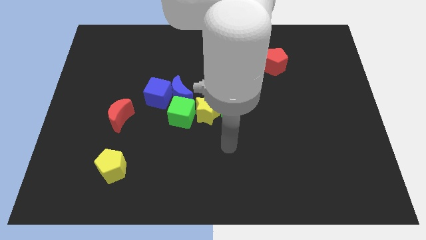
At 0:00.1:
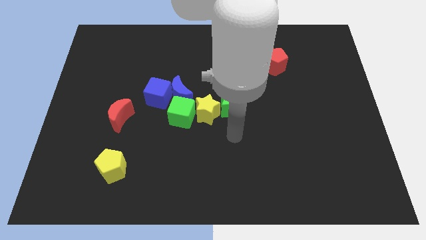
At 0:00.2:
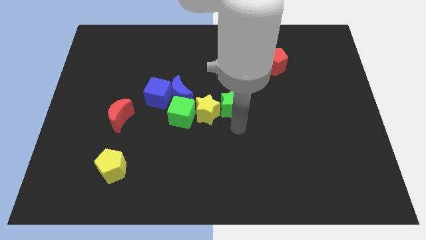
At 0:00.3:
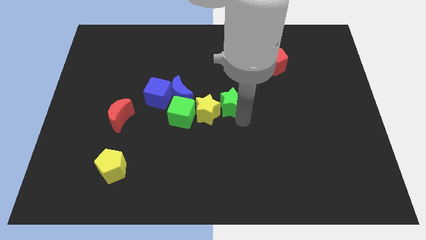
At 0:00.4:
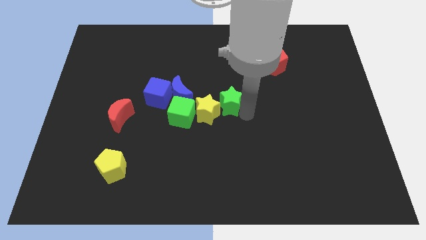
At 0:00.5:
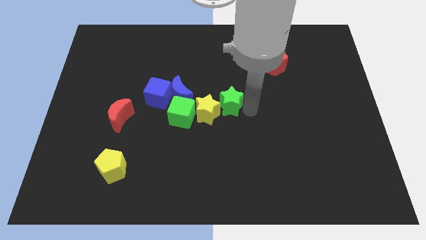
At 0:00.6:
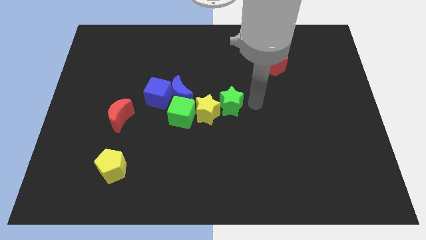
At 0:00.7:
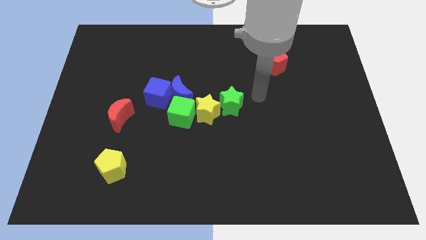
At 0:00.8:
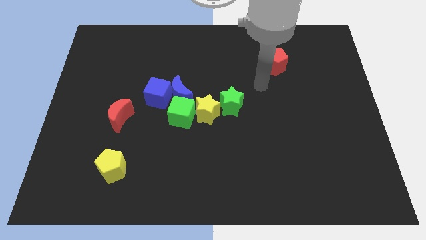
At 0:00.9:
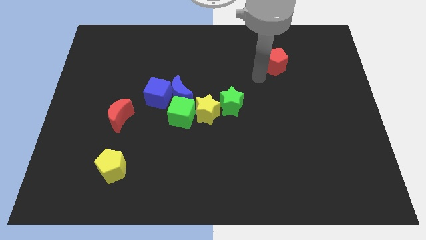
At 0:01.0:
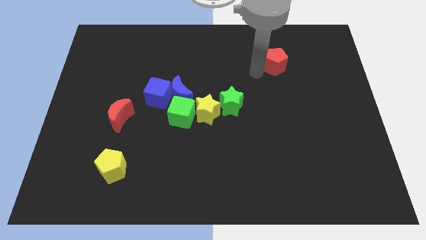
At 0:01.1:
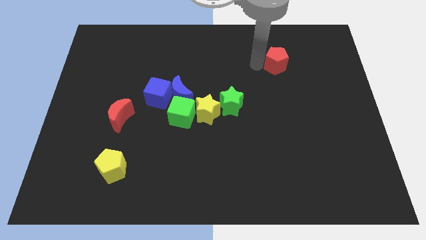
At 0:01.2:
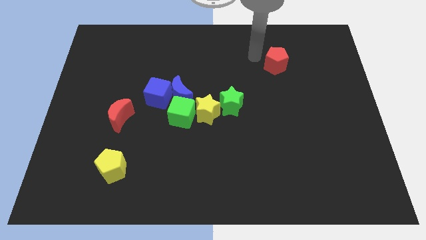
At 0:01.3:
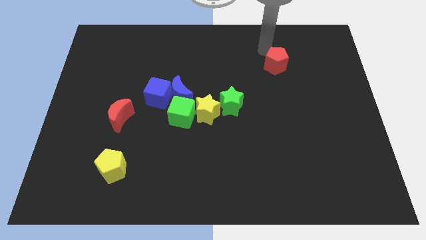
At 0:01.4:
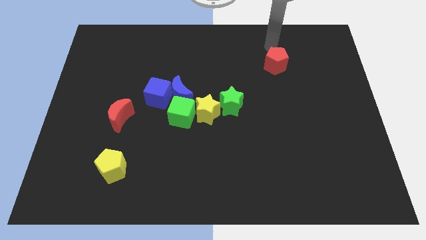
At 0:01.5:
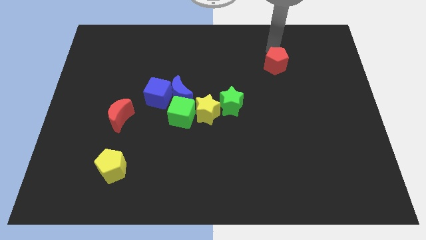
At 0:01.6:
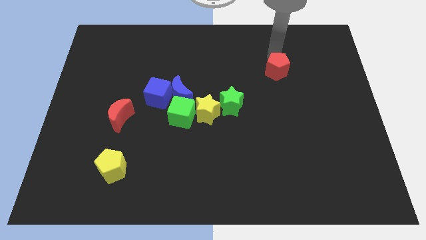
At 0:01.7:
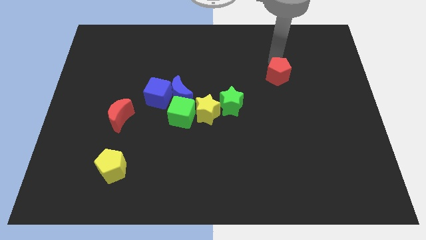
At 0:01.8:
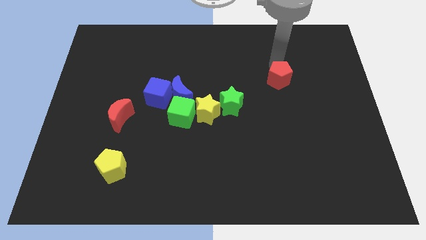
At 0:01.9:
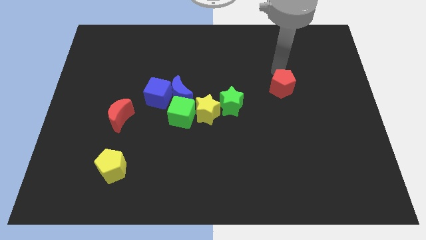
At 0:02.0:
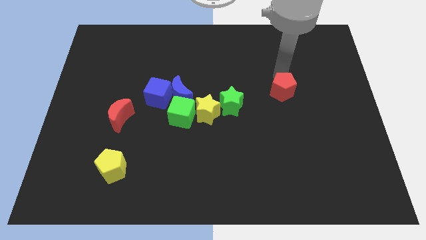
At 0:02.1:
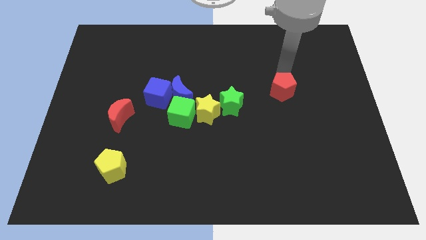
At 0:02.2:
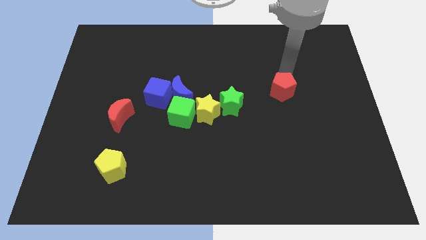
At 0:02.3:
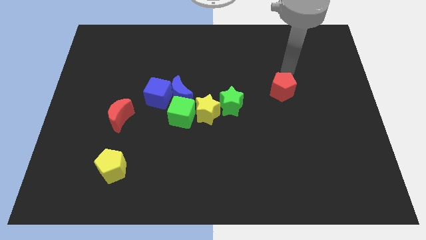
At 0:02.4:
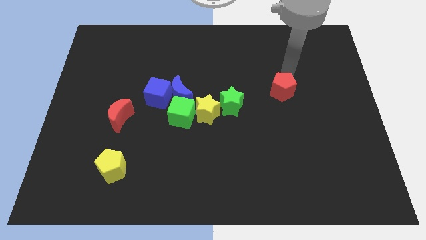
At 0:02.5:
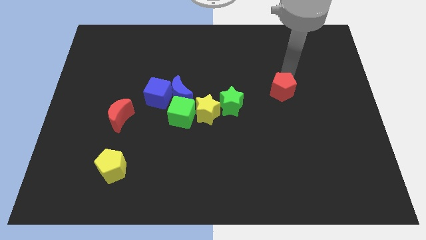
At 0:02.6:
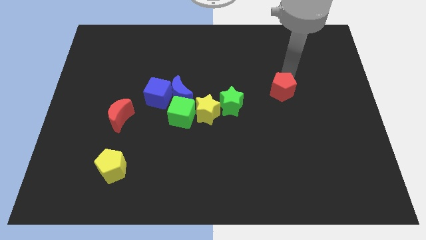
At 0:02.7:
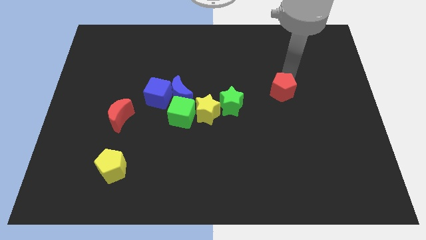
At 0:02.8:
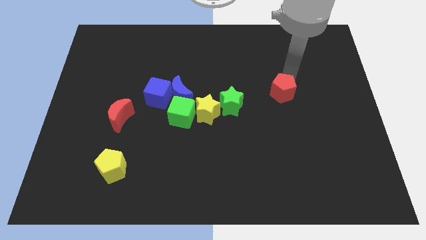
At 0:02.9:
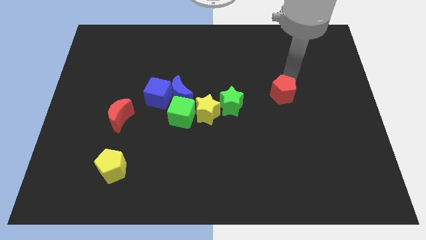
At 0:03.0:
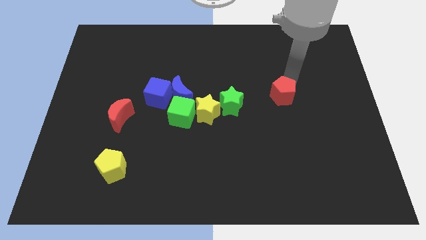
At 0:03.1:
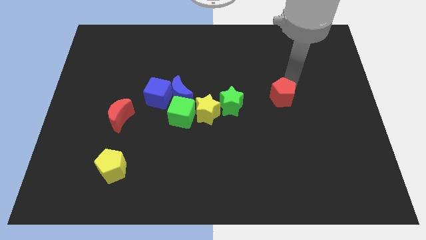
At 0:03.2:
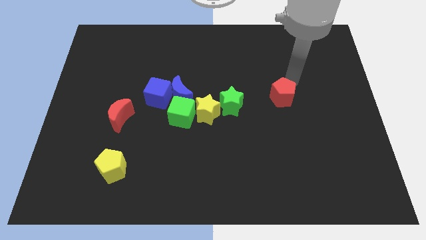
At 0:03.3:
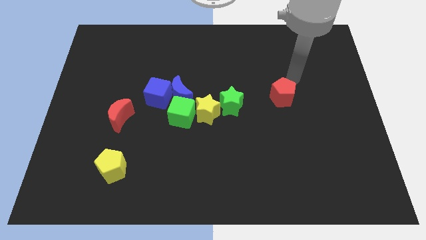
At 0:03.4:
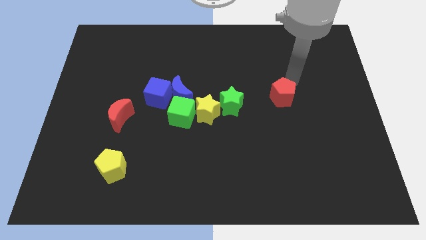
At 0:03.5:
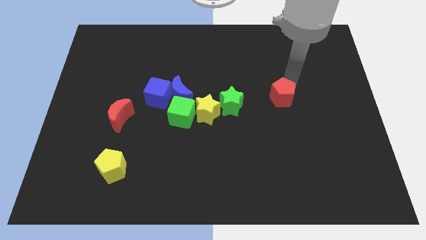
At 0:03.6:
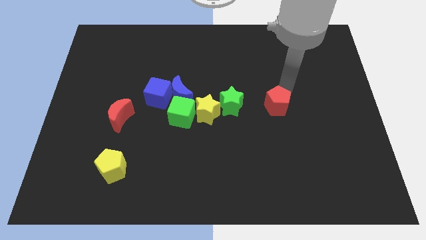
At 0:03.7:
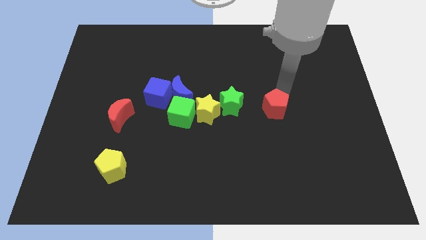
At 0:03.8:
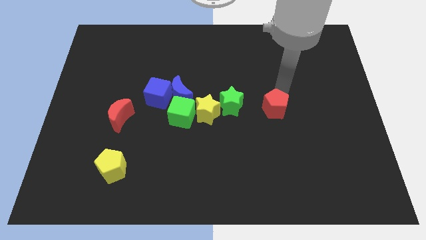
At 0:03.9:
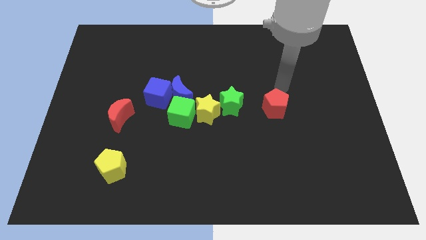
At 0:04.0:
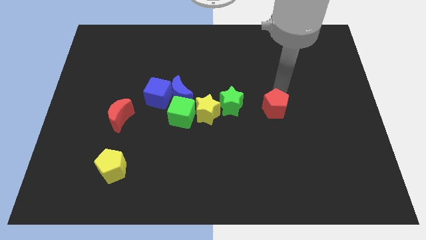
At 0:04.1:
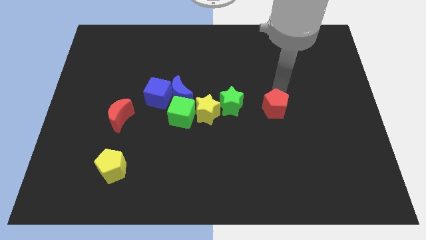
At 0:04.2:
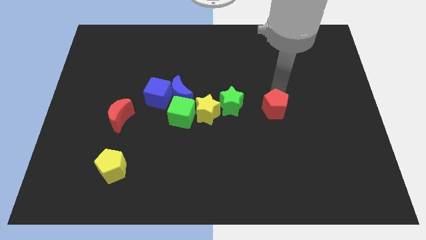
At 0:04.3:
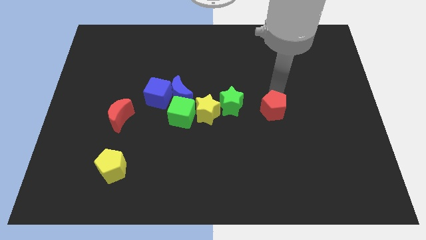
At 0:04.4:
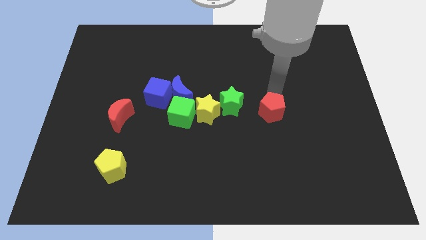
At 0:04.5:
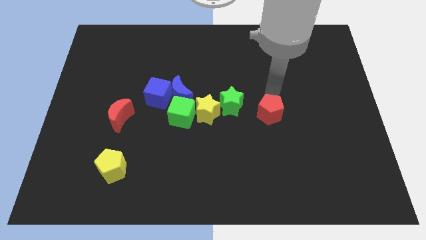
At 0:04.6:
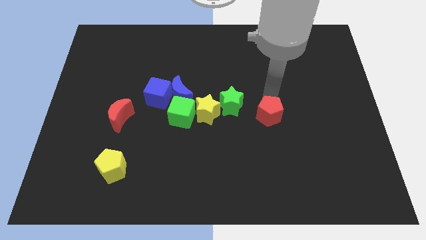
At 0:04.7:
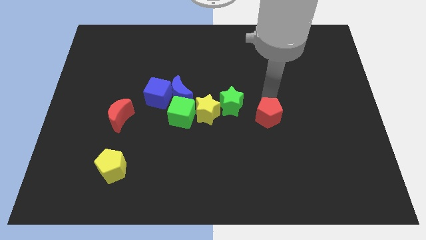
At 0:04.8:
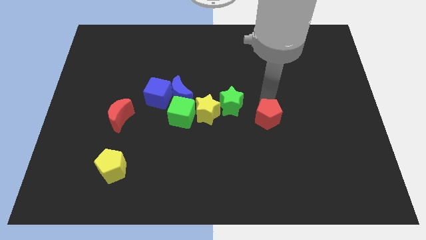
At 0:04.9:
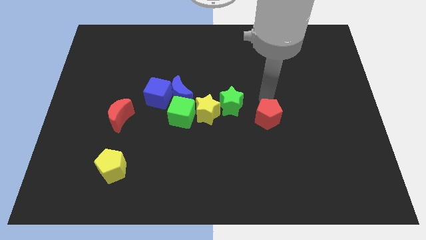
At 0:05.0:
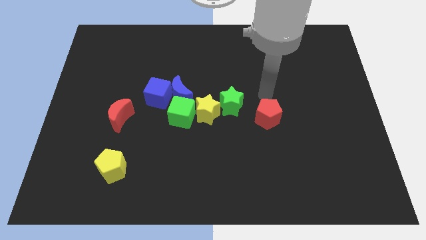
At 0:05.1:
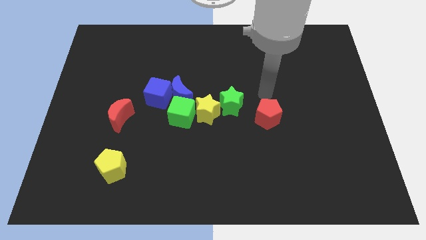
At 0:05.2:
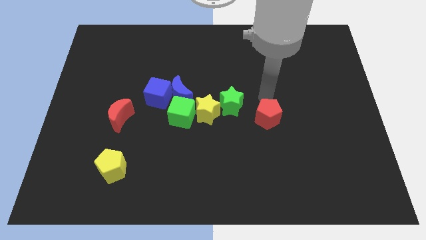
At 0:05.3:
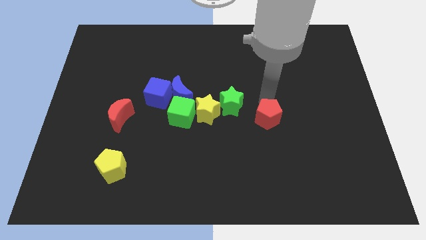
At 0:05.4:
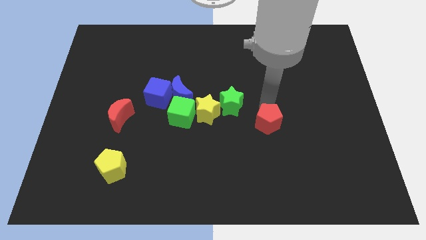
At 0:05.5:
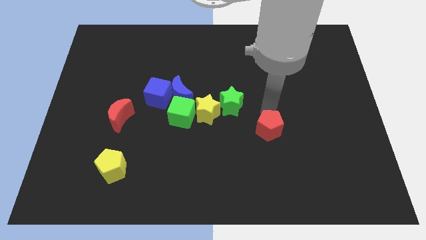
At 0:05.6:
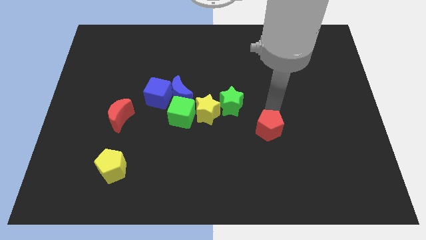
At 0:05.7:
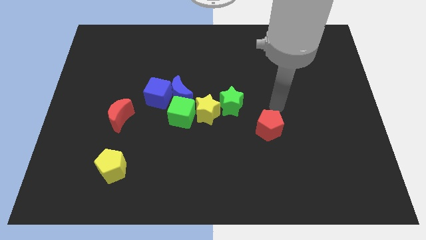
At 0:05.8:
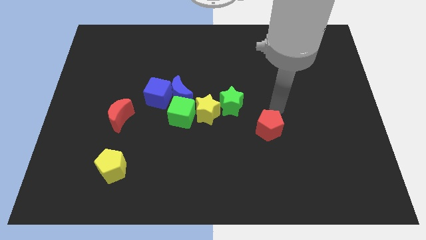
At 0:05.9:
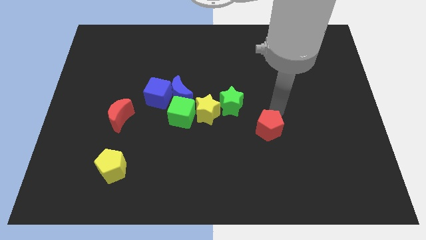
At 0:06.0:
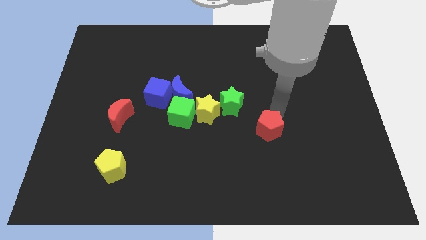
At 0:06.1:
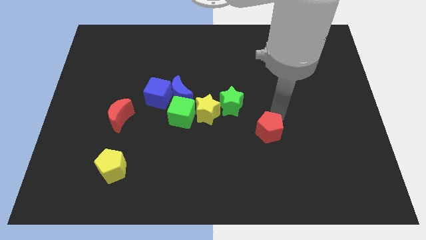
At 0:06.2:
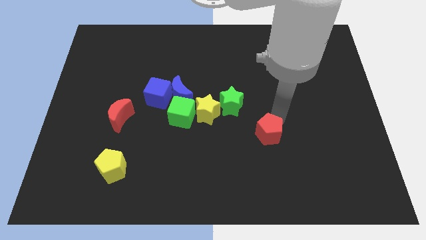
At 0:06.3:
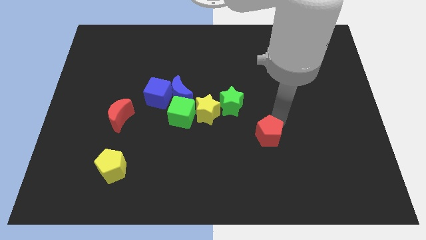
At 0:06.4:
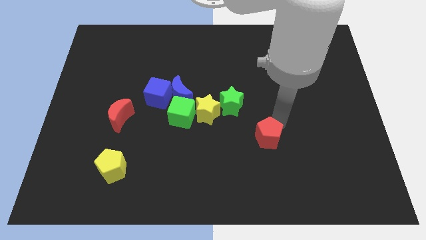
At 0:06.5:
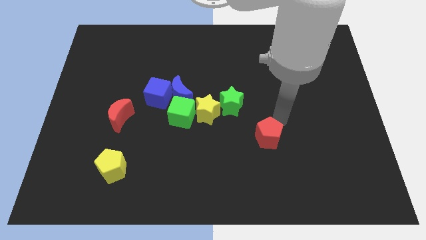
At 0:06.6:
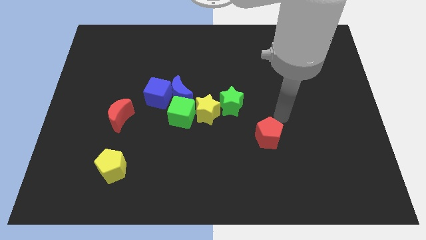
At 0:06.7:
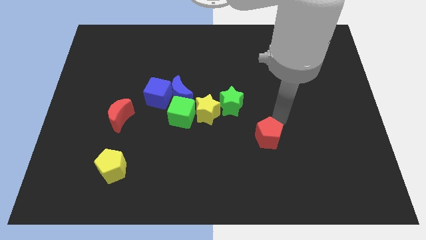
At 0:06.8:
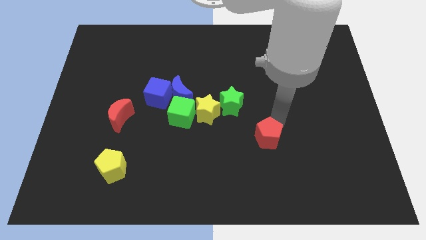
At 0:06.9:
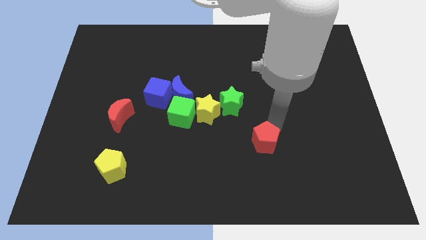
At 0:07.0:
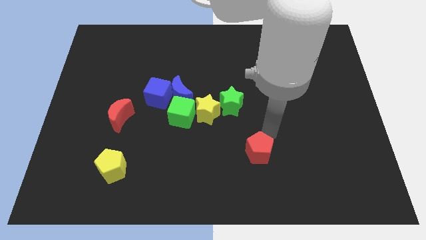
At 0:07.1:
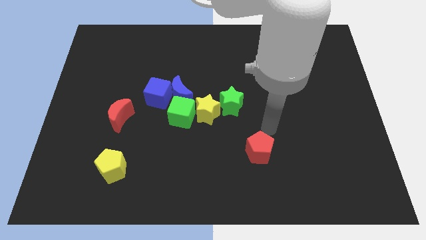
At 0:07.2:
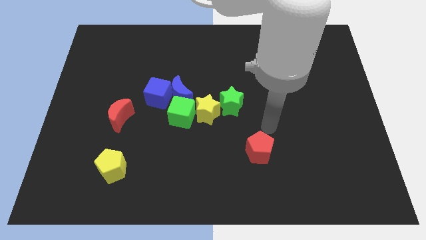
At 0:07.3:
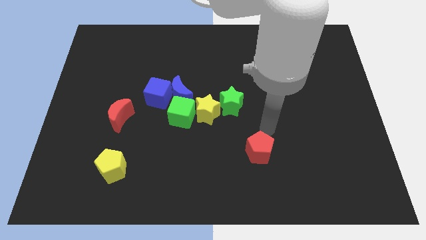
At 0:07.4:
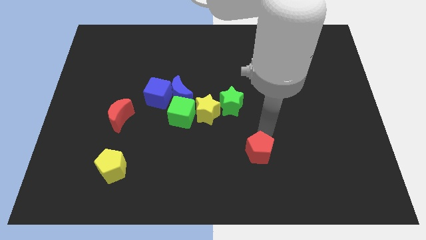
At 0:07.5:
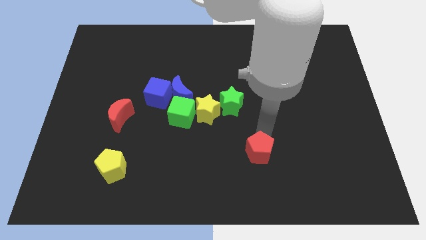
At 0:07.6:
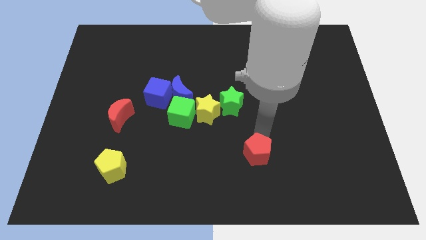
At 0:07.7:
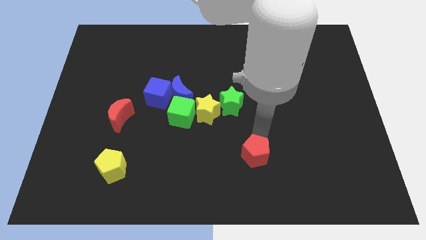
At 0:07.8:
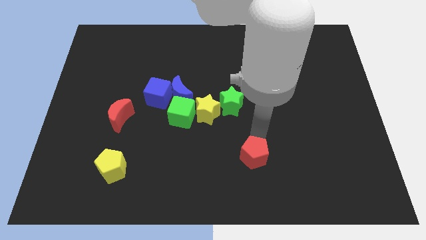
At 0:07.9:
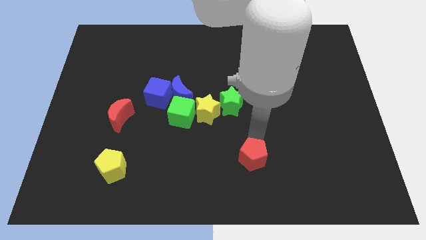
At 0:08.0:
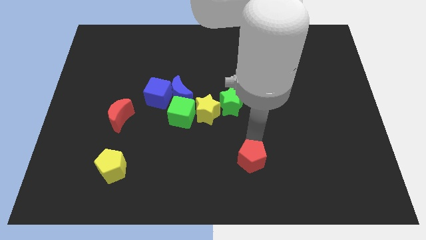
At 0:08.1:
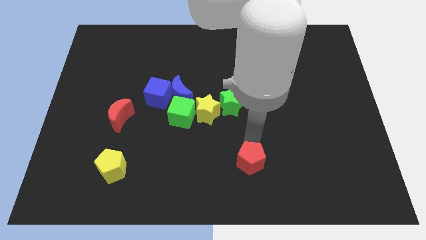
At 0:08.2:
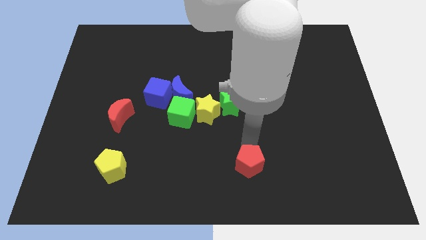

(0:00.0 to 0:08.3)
put the red pentagon to the bottom side
